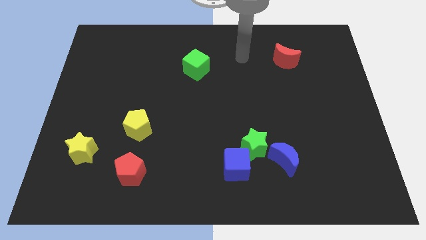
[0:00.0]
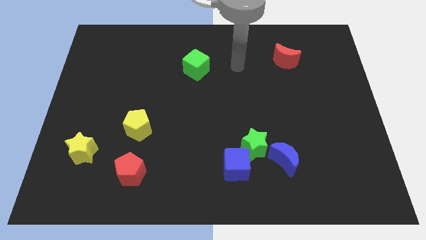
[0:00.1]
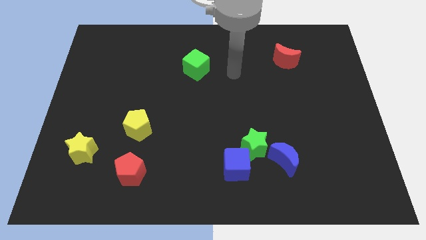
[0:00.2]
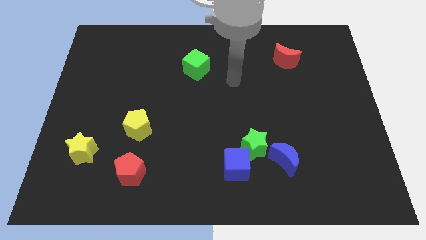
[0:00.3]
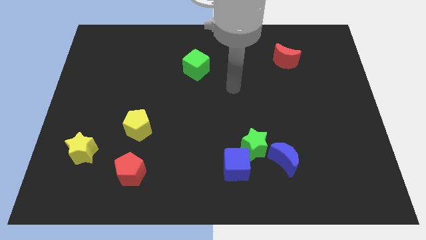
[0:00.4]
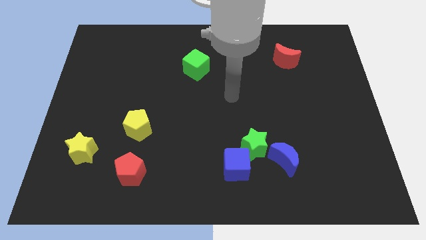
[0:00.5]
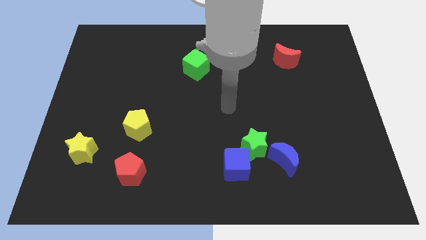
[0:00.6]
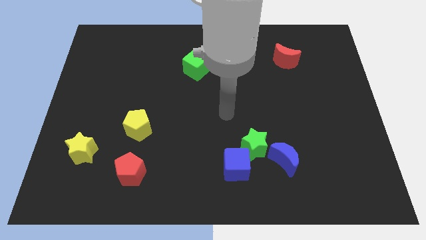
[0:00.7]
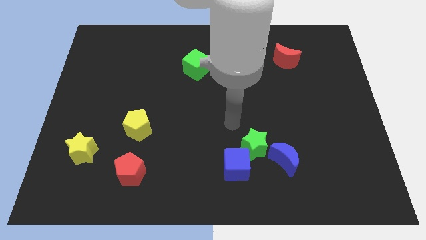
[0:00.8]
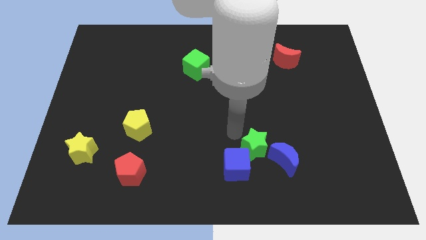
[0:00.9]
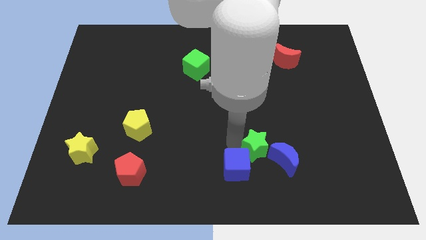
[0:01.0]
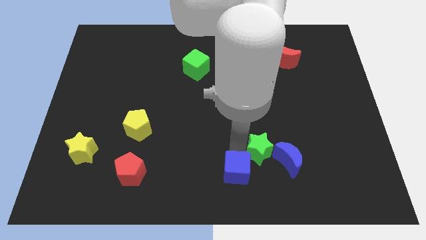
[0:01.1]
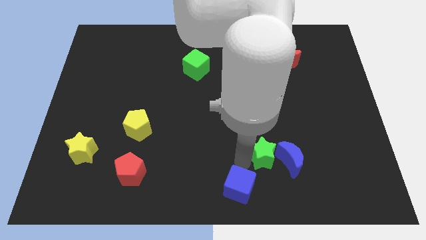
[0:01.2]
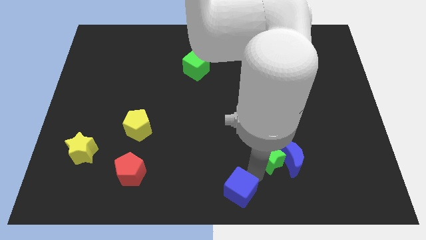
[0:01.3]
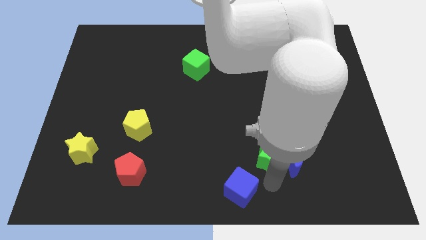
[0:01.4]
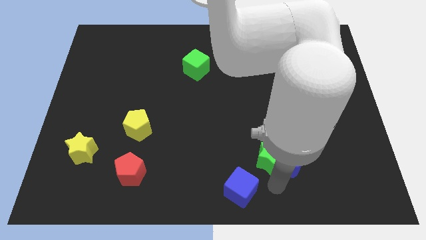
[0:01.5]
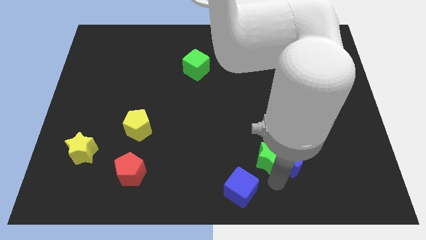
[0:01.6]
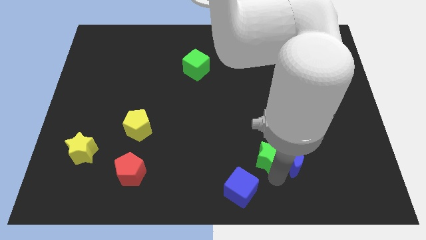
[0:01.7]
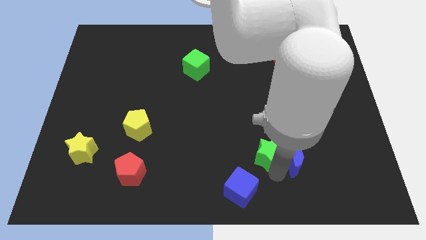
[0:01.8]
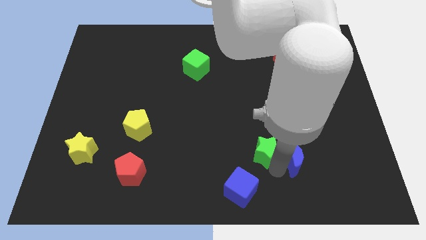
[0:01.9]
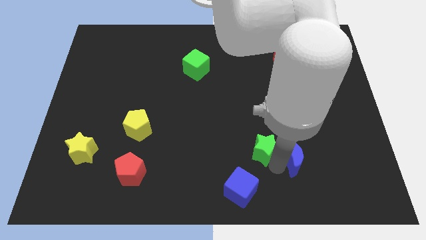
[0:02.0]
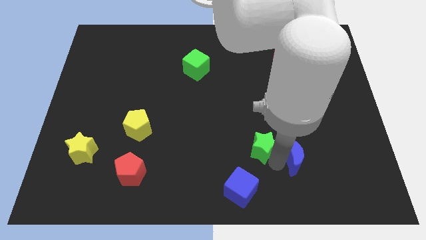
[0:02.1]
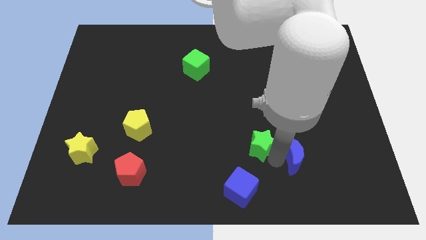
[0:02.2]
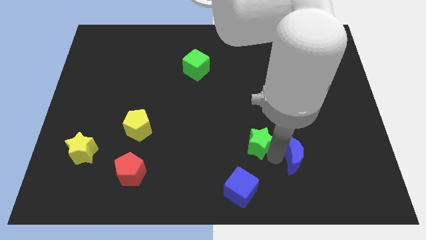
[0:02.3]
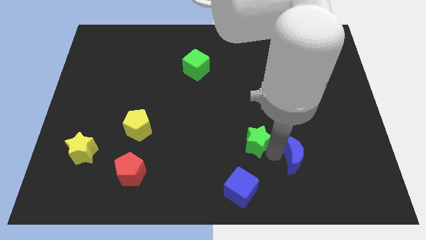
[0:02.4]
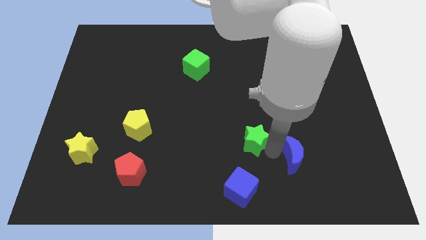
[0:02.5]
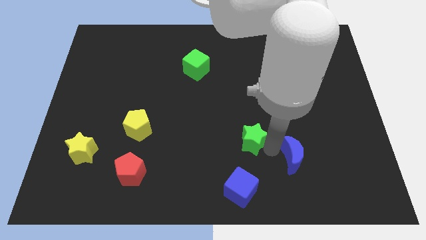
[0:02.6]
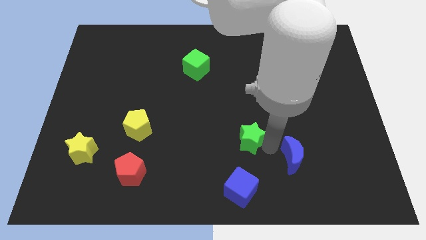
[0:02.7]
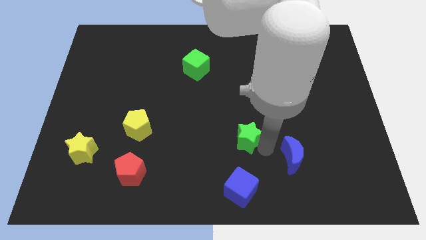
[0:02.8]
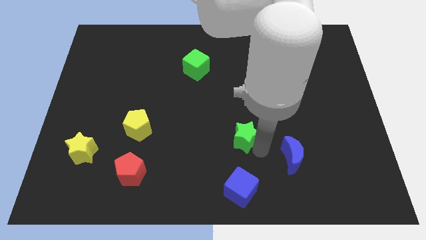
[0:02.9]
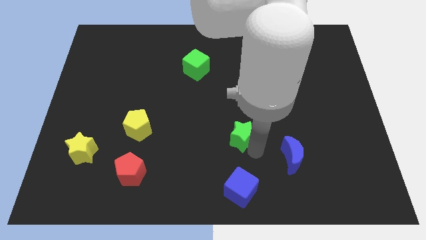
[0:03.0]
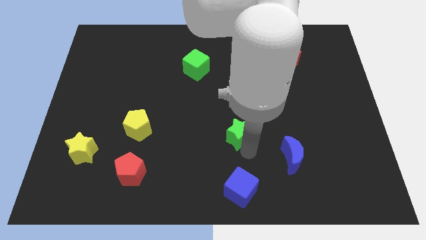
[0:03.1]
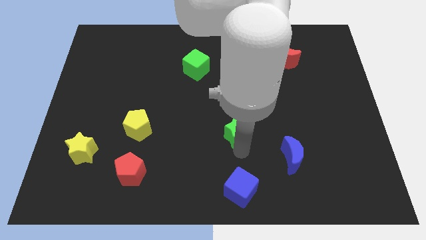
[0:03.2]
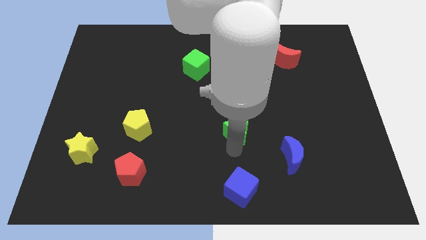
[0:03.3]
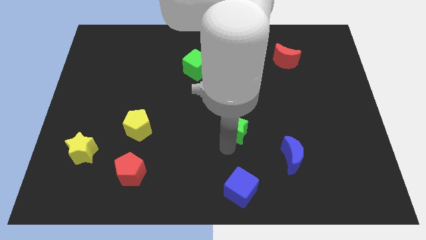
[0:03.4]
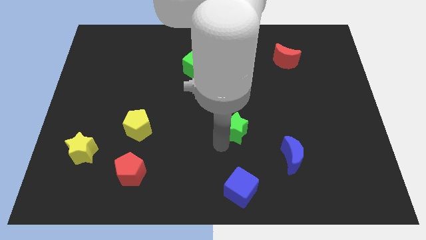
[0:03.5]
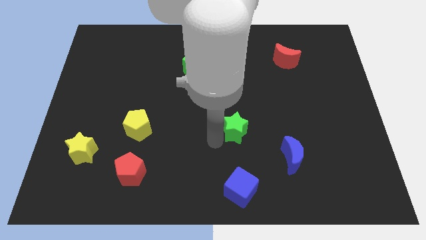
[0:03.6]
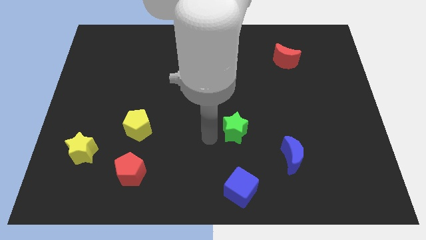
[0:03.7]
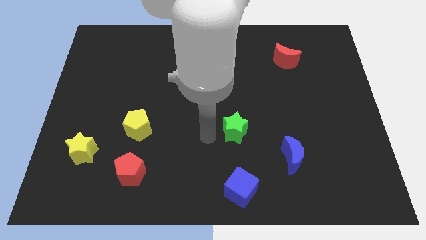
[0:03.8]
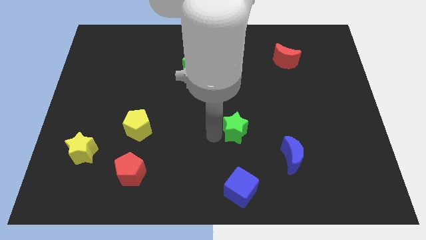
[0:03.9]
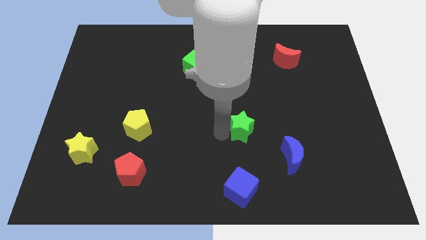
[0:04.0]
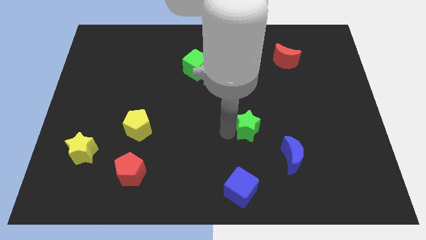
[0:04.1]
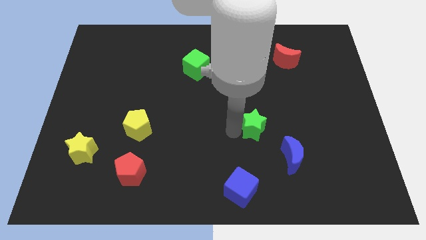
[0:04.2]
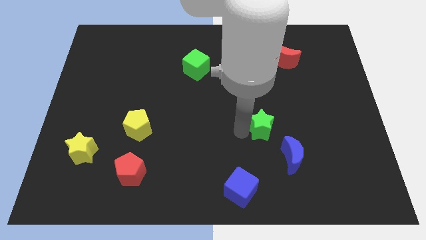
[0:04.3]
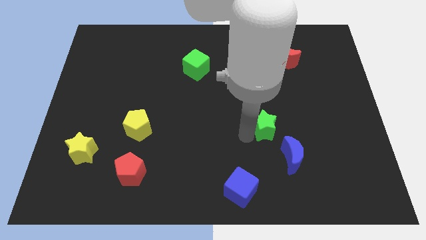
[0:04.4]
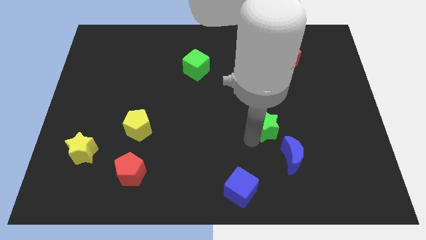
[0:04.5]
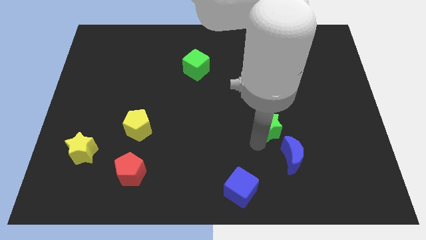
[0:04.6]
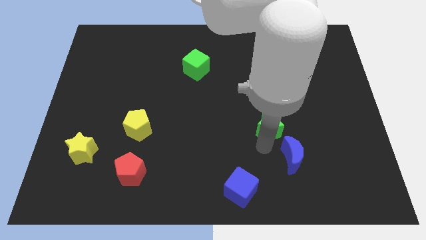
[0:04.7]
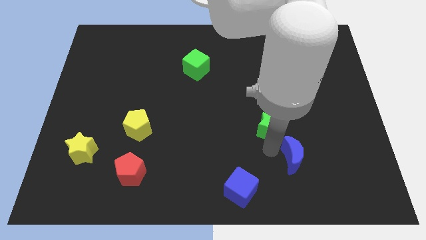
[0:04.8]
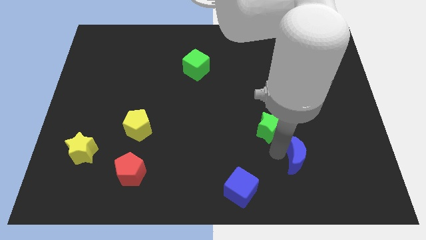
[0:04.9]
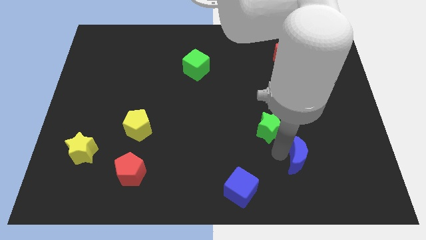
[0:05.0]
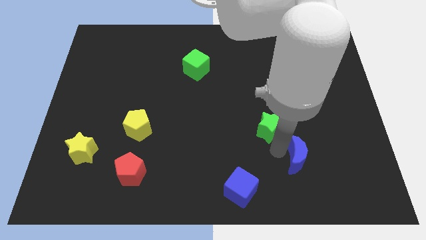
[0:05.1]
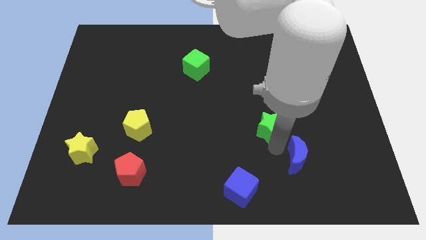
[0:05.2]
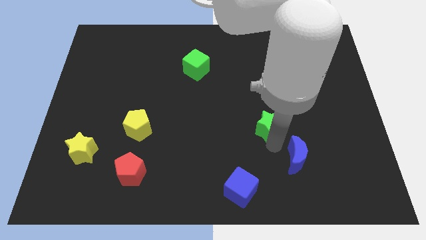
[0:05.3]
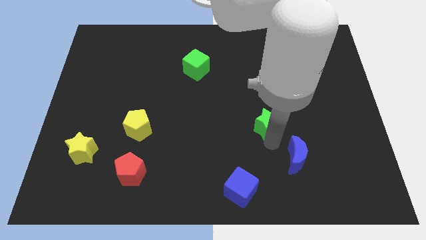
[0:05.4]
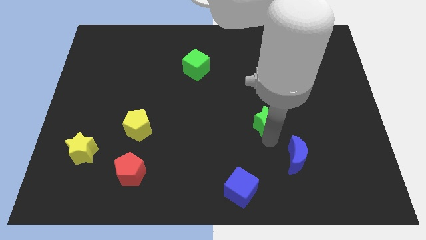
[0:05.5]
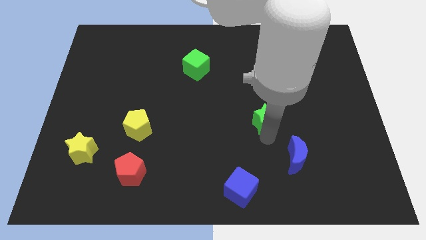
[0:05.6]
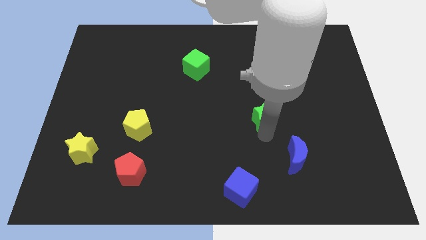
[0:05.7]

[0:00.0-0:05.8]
slightly slide the green star upwards

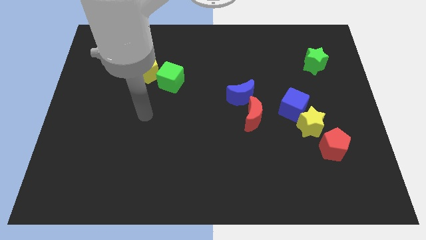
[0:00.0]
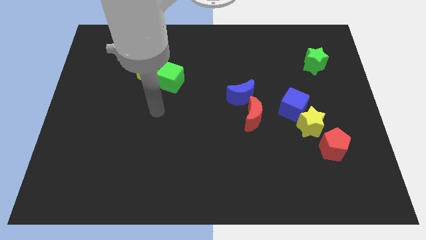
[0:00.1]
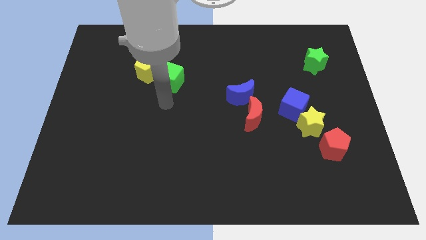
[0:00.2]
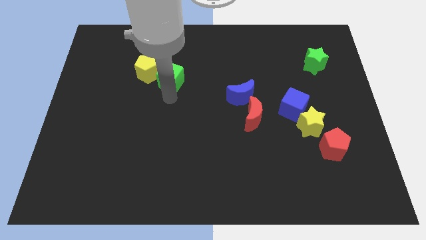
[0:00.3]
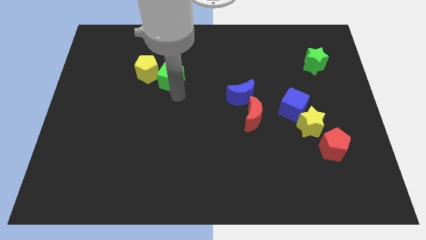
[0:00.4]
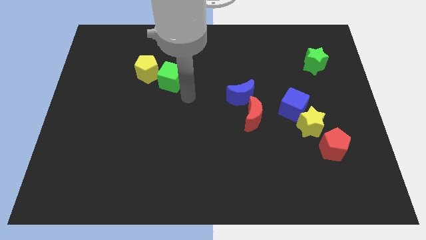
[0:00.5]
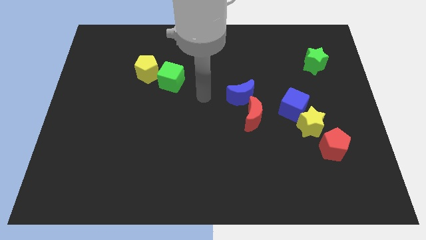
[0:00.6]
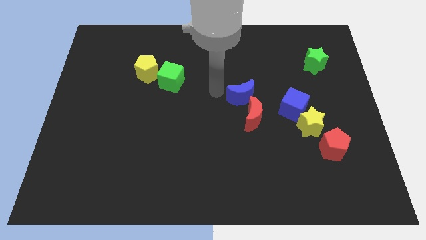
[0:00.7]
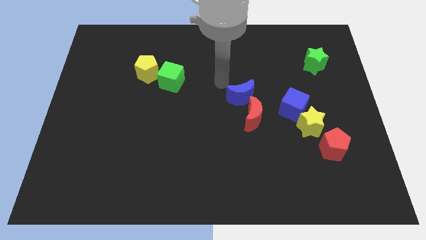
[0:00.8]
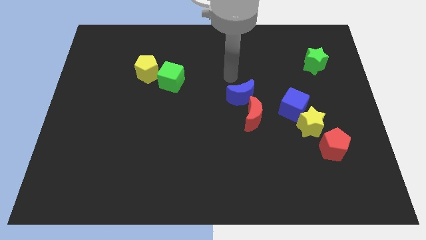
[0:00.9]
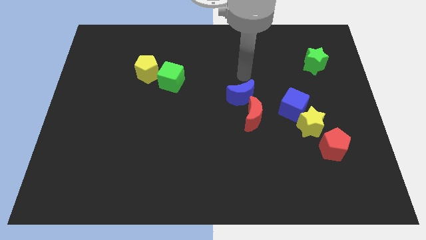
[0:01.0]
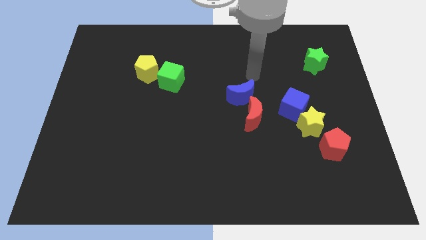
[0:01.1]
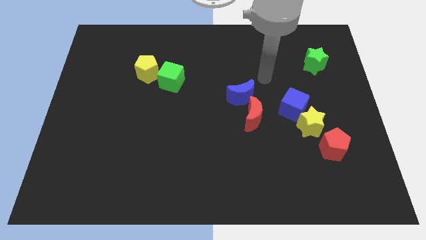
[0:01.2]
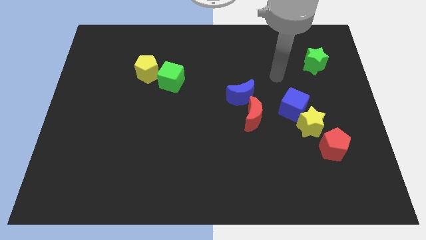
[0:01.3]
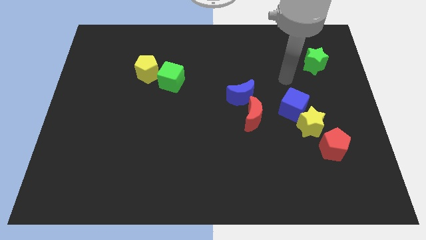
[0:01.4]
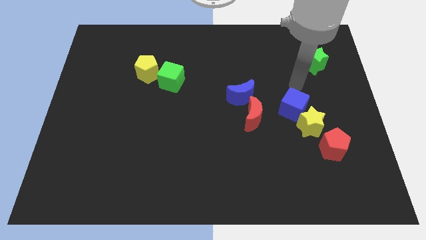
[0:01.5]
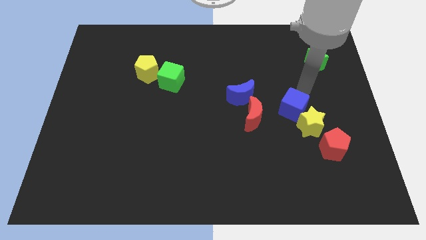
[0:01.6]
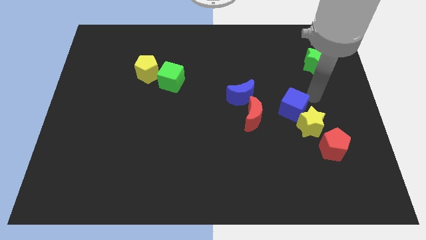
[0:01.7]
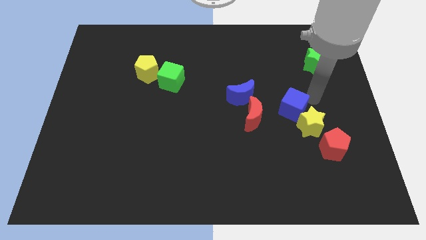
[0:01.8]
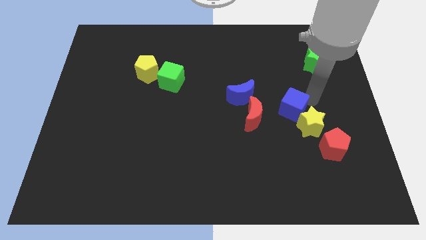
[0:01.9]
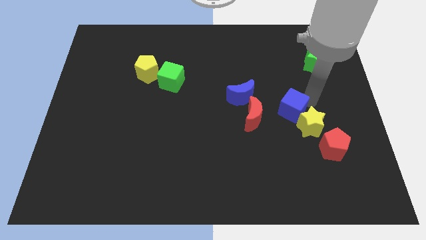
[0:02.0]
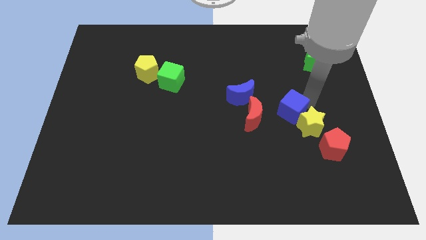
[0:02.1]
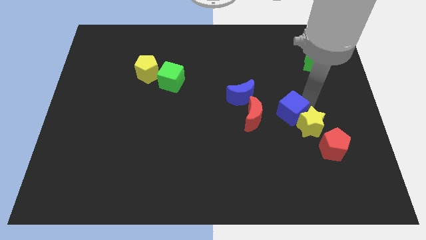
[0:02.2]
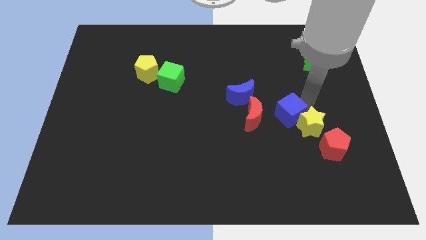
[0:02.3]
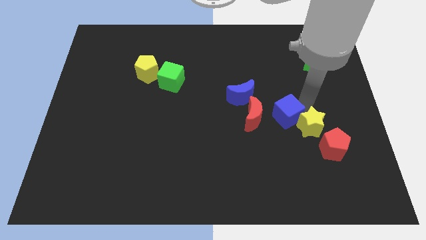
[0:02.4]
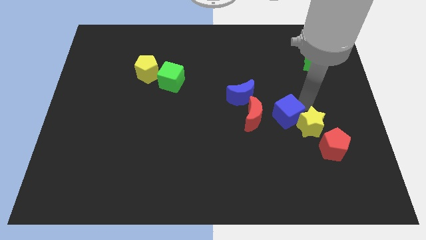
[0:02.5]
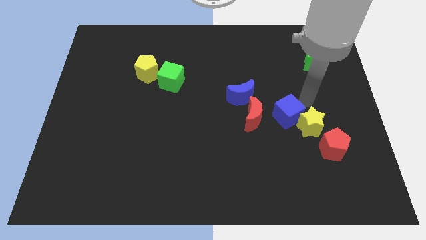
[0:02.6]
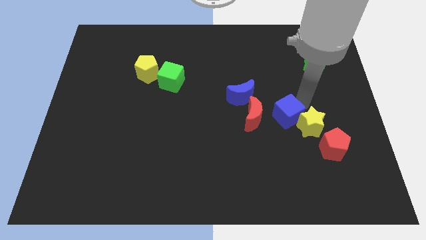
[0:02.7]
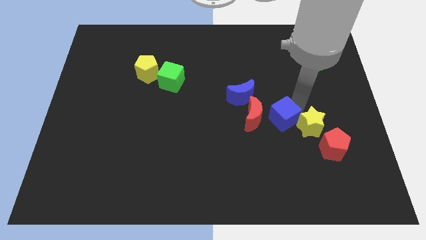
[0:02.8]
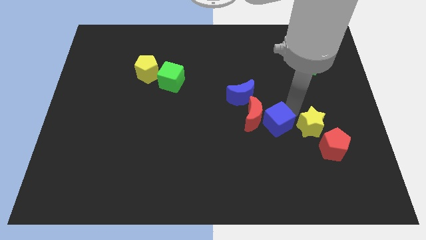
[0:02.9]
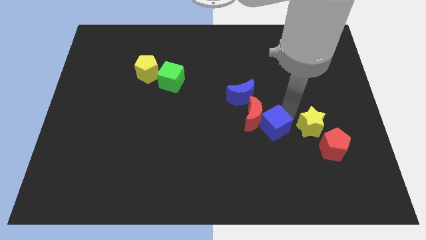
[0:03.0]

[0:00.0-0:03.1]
slide the blue cube downwards and left slightly
